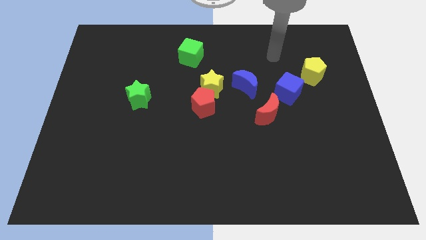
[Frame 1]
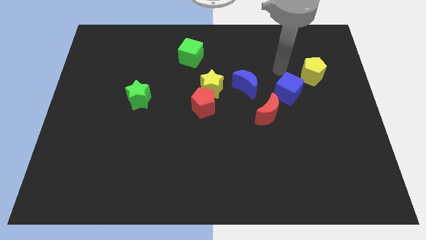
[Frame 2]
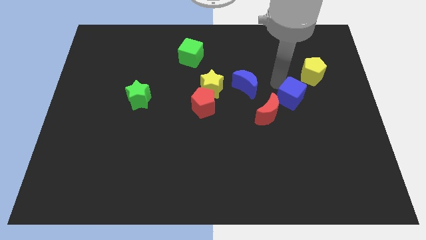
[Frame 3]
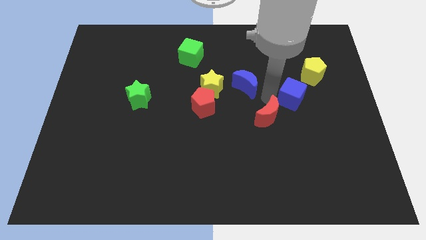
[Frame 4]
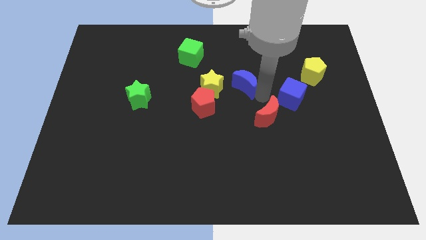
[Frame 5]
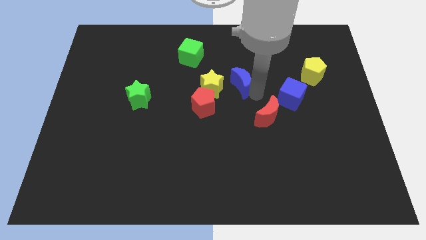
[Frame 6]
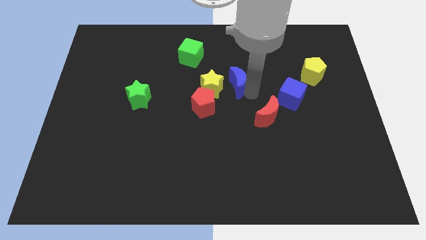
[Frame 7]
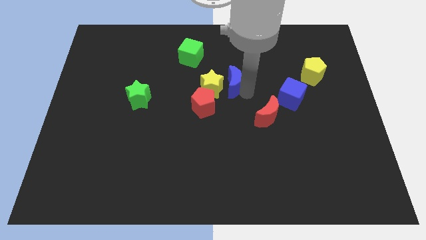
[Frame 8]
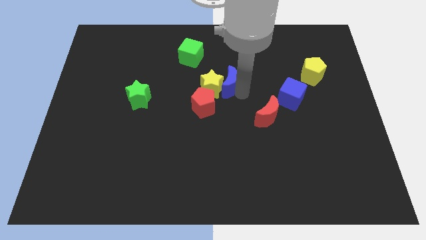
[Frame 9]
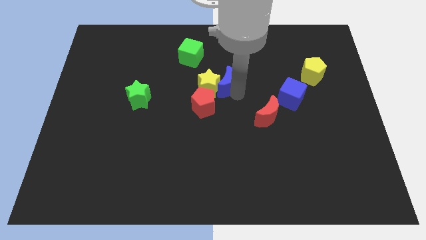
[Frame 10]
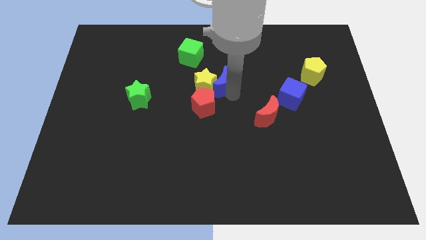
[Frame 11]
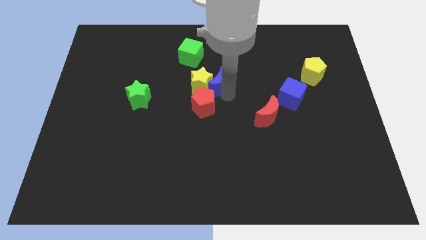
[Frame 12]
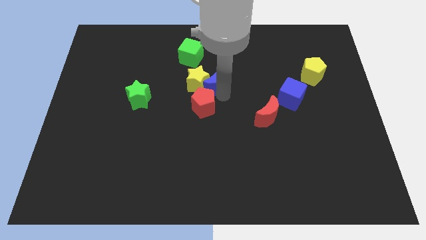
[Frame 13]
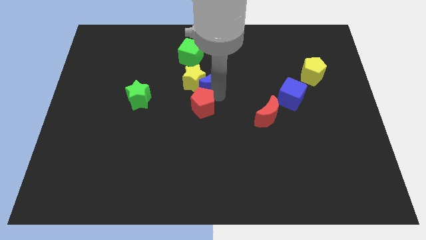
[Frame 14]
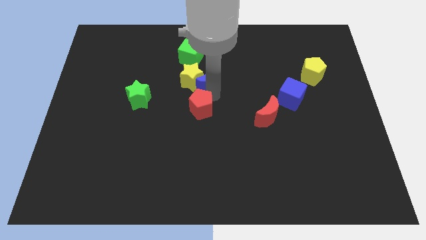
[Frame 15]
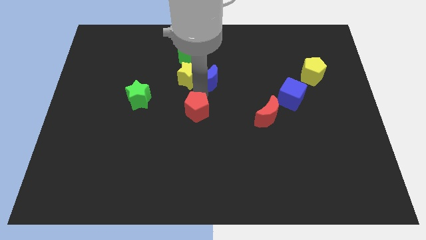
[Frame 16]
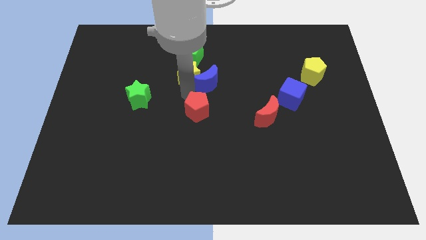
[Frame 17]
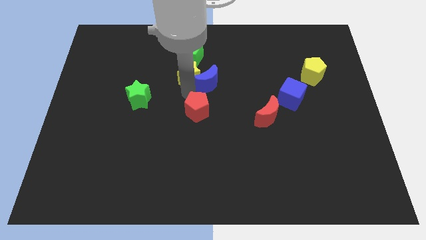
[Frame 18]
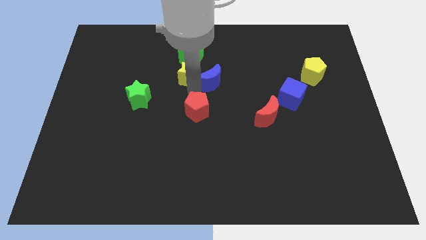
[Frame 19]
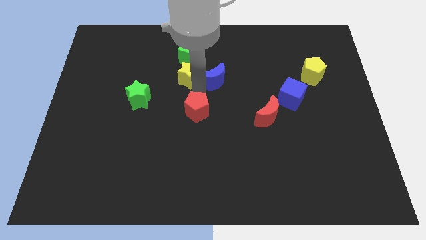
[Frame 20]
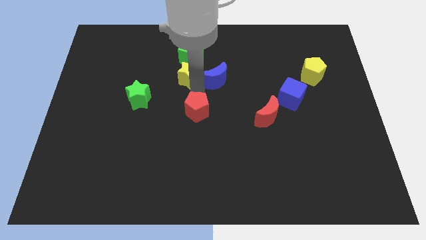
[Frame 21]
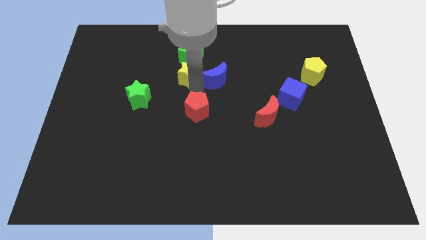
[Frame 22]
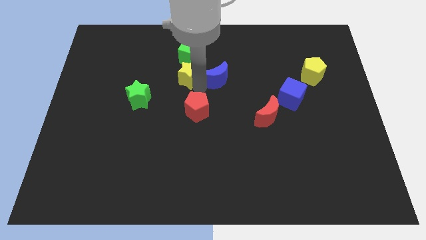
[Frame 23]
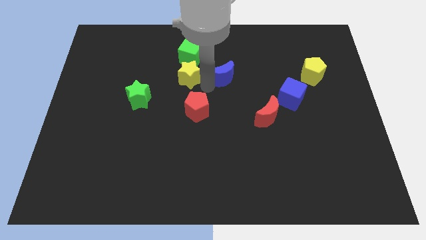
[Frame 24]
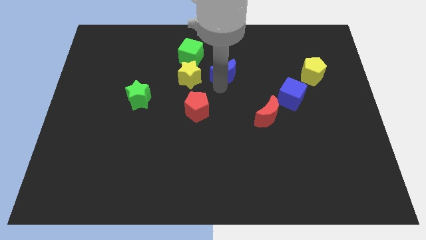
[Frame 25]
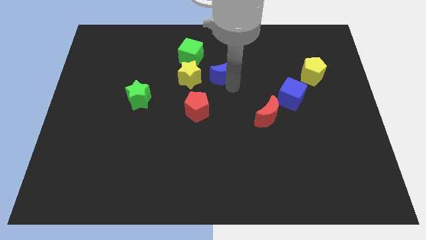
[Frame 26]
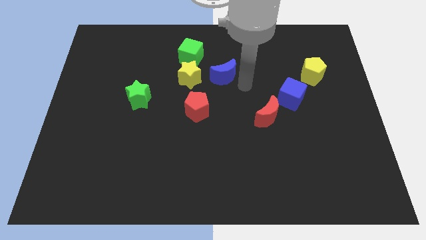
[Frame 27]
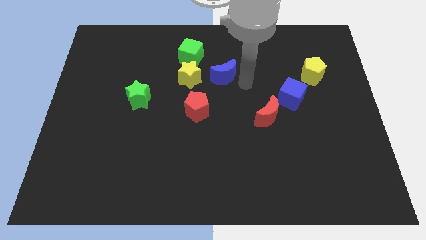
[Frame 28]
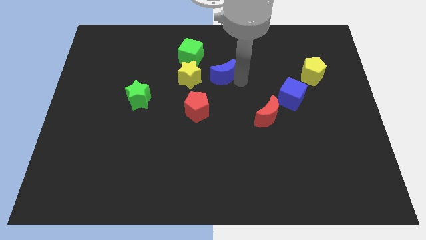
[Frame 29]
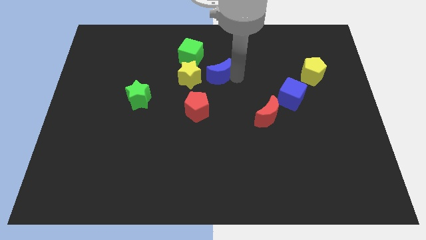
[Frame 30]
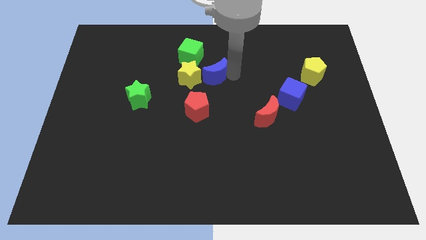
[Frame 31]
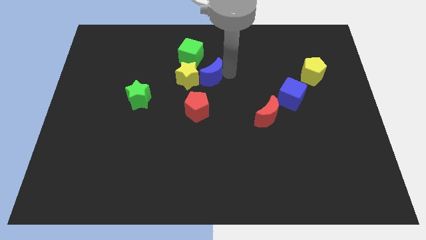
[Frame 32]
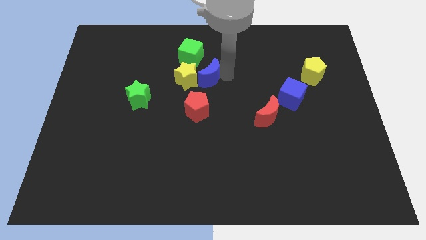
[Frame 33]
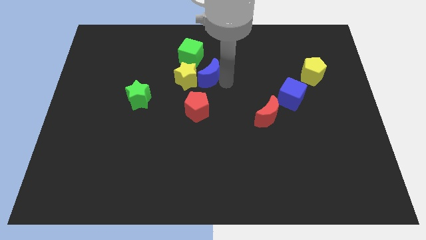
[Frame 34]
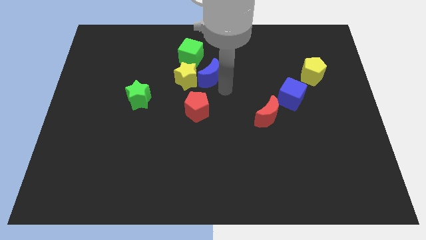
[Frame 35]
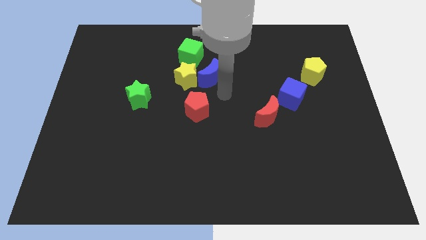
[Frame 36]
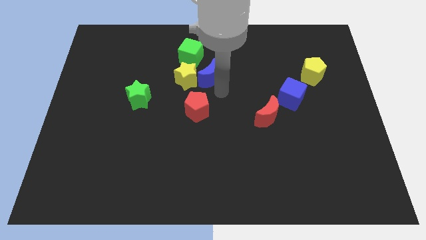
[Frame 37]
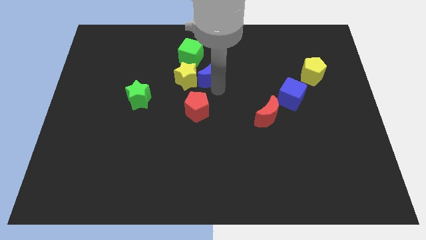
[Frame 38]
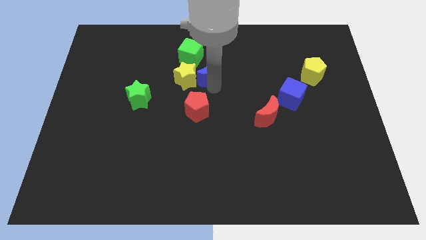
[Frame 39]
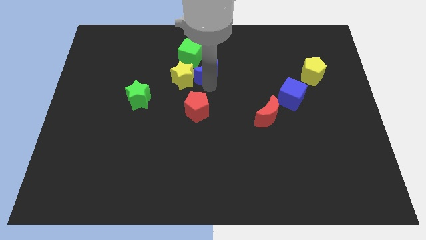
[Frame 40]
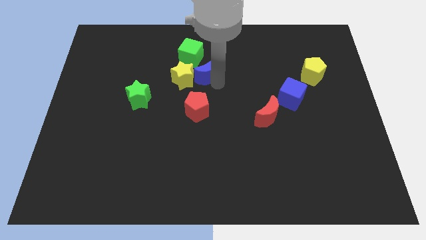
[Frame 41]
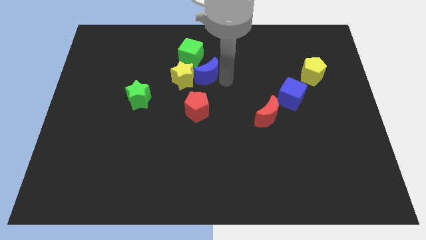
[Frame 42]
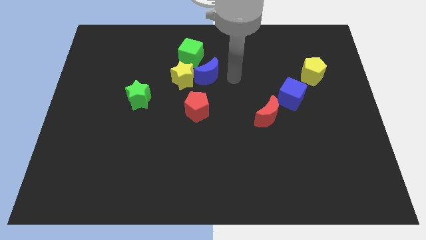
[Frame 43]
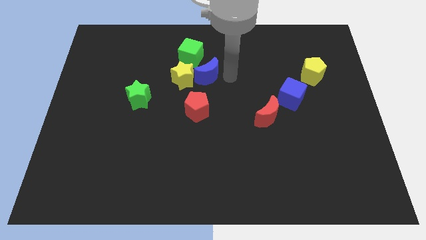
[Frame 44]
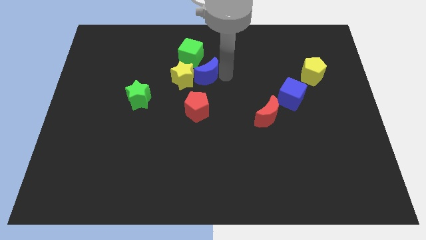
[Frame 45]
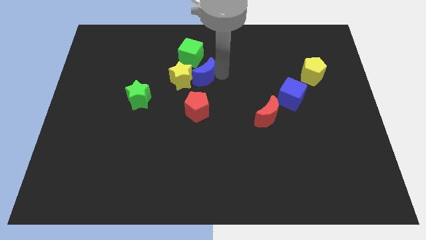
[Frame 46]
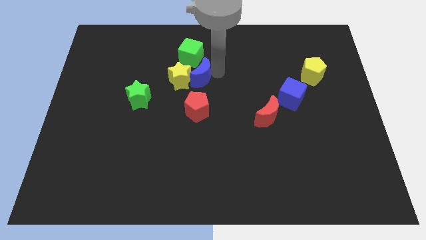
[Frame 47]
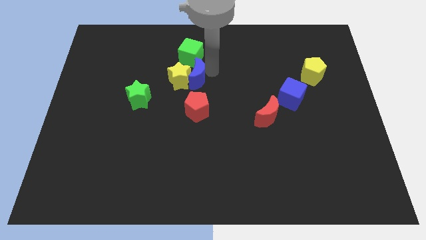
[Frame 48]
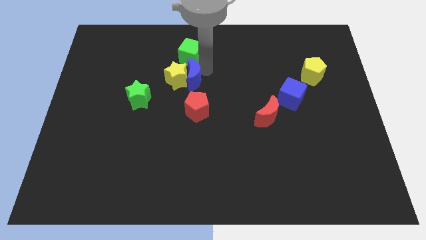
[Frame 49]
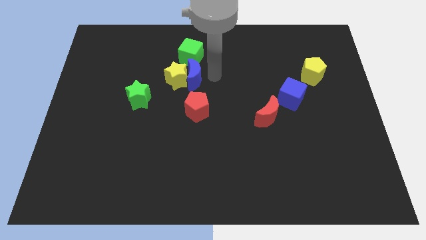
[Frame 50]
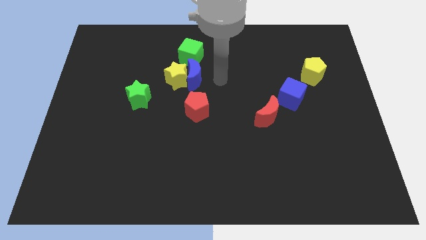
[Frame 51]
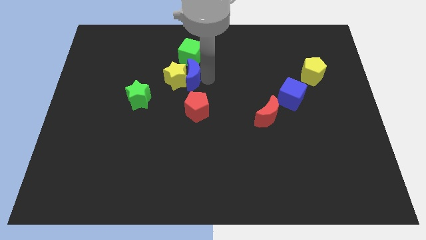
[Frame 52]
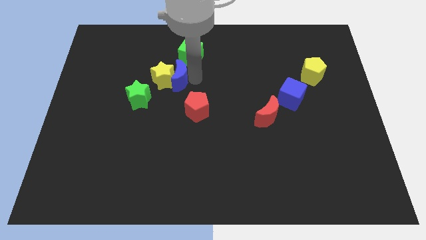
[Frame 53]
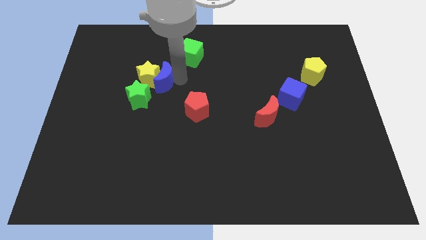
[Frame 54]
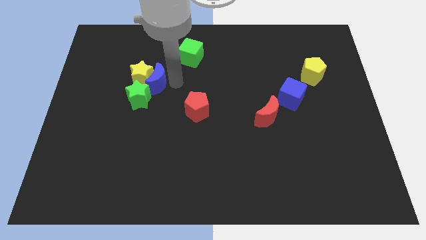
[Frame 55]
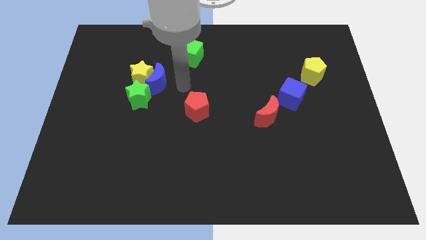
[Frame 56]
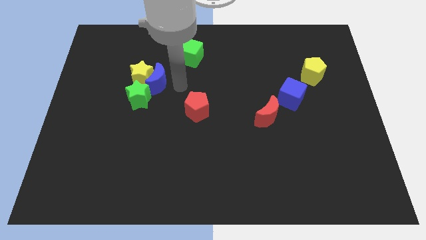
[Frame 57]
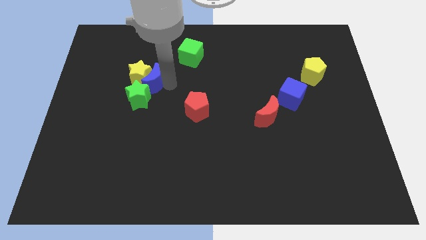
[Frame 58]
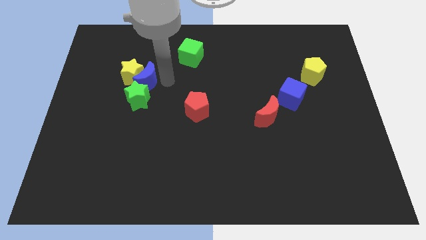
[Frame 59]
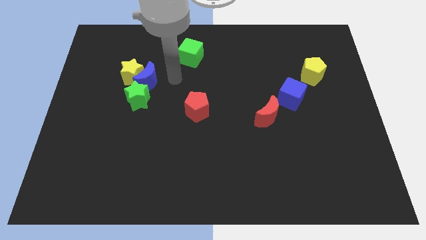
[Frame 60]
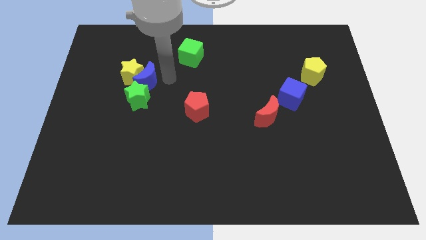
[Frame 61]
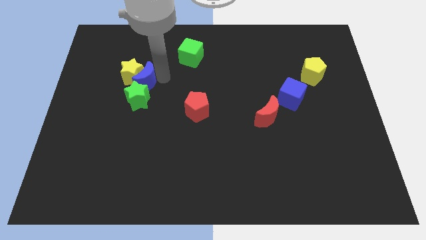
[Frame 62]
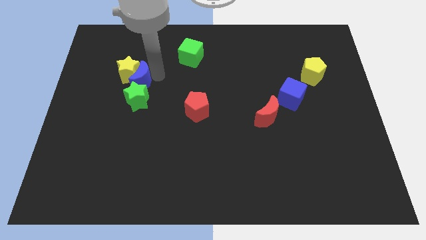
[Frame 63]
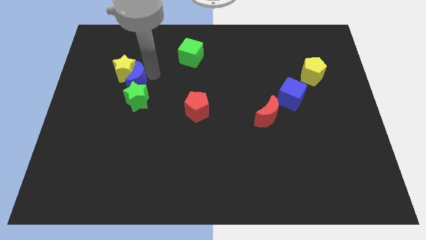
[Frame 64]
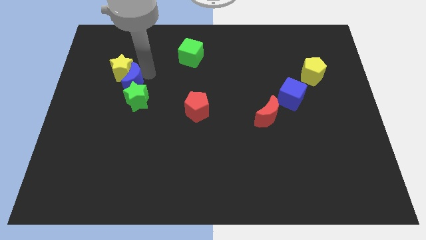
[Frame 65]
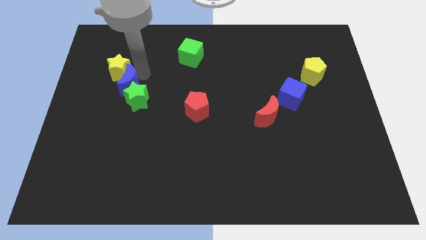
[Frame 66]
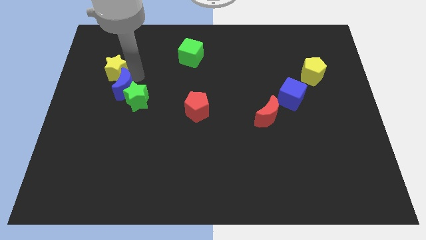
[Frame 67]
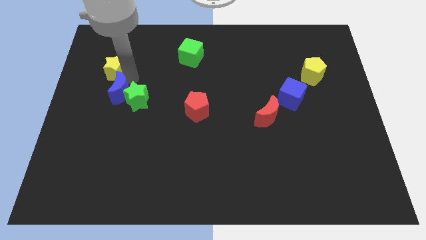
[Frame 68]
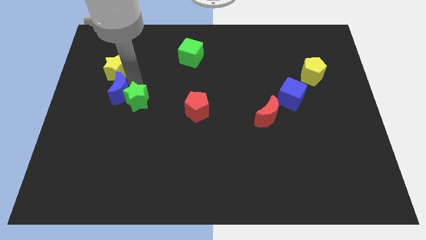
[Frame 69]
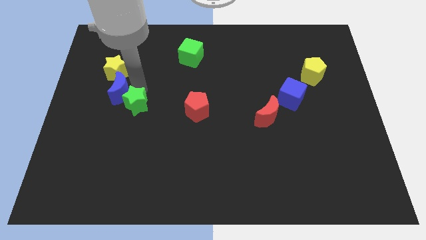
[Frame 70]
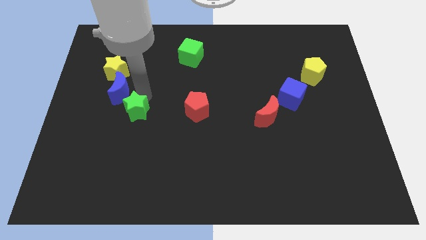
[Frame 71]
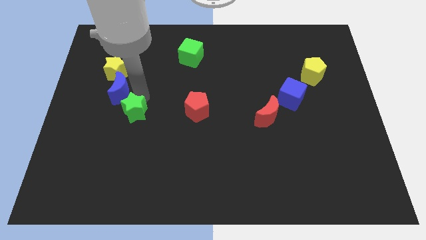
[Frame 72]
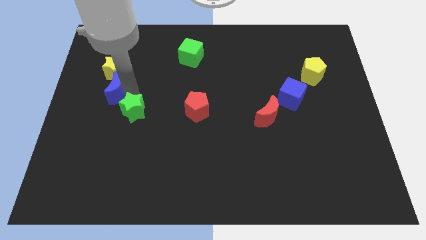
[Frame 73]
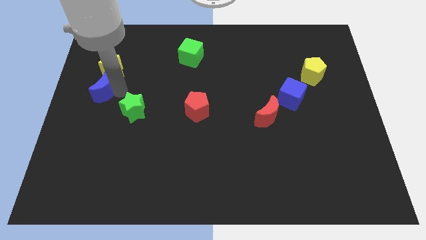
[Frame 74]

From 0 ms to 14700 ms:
move the blue moon to the left side
